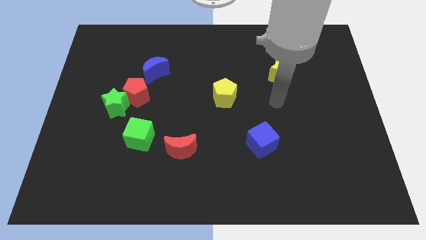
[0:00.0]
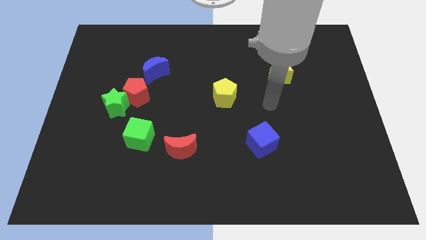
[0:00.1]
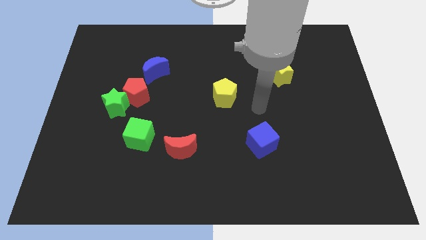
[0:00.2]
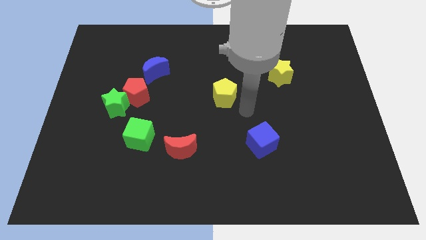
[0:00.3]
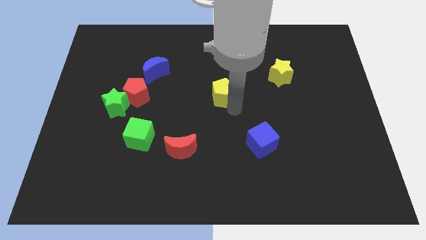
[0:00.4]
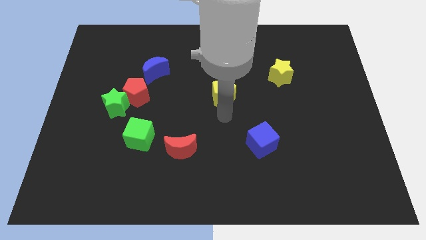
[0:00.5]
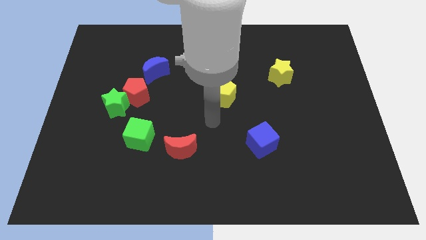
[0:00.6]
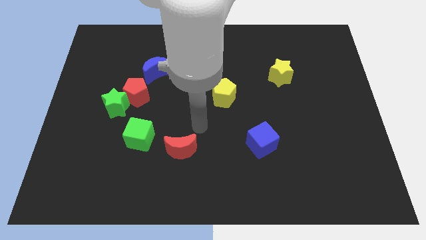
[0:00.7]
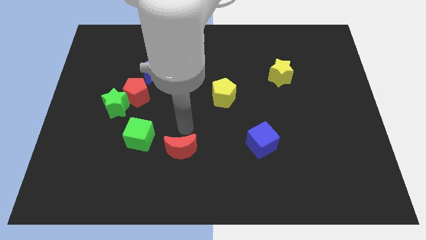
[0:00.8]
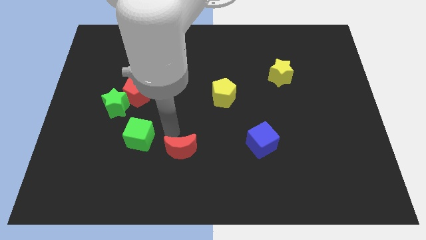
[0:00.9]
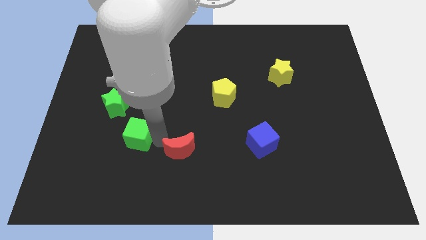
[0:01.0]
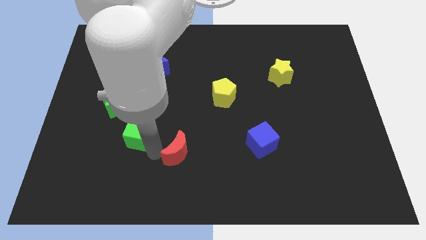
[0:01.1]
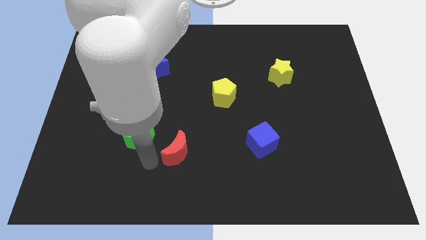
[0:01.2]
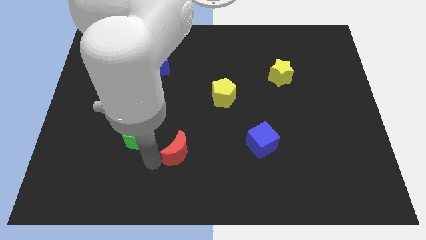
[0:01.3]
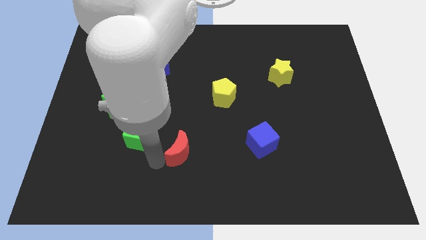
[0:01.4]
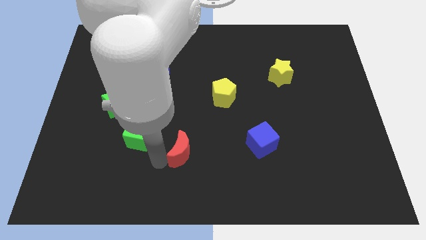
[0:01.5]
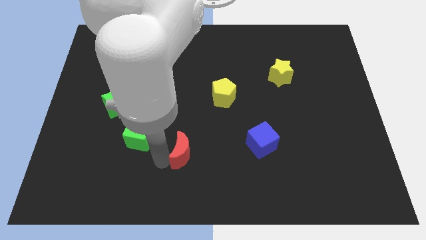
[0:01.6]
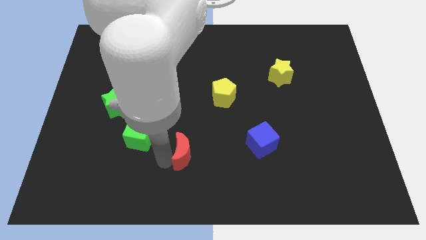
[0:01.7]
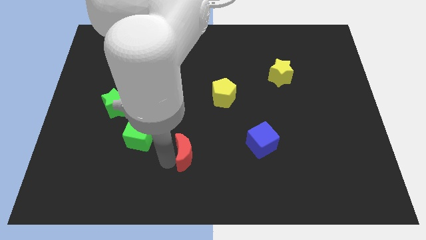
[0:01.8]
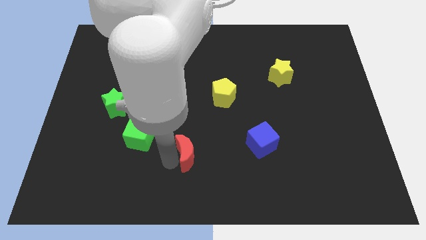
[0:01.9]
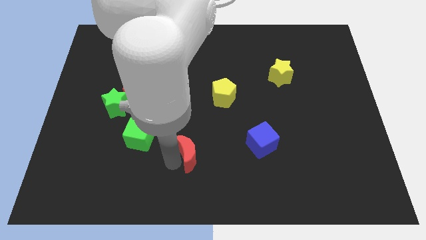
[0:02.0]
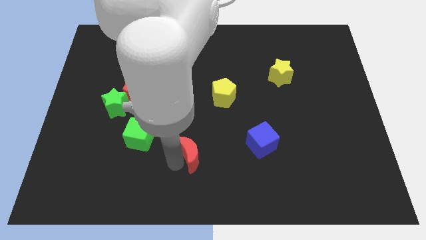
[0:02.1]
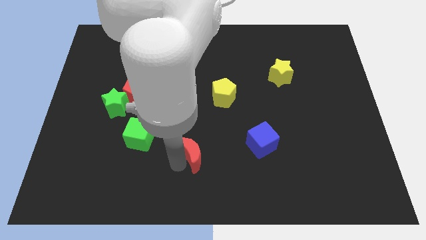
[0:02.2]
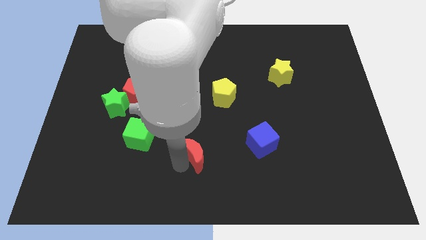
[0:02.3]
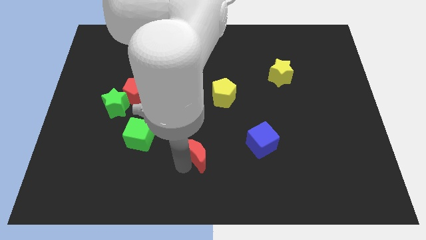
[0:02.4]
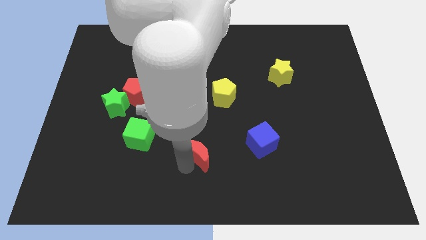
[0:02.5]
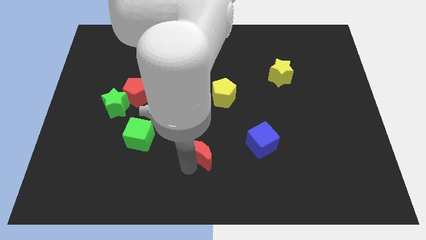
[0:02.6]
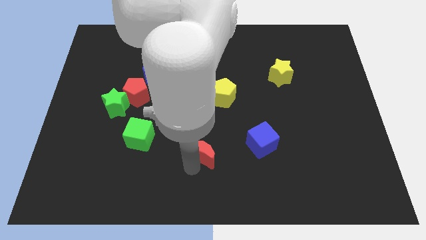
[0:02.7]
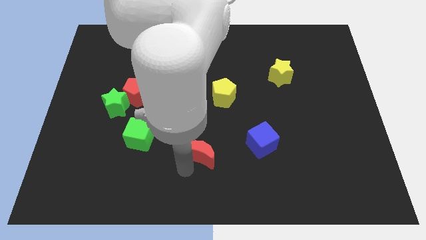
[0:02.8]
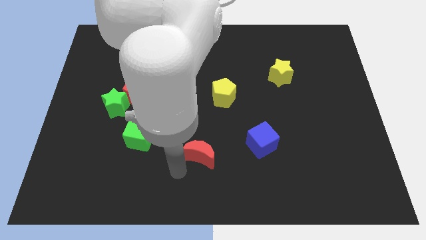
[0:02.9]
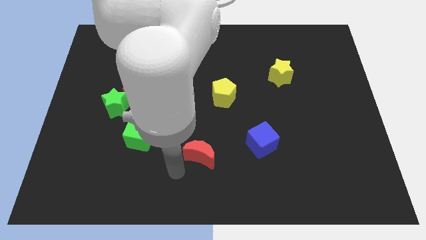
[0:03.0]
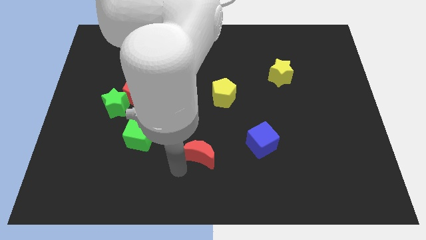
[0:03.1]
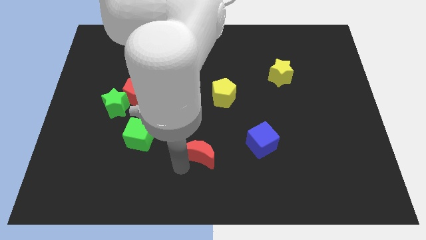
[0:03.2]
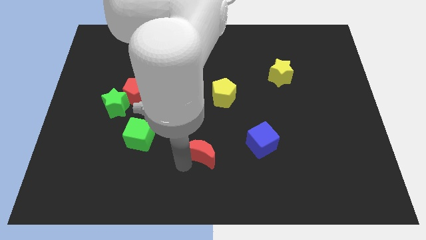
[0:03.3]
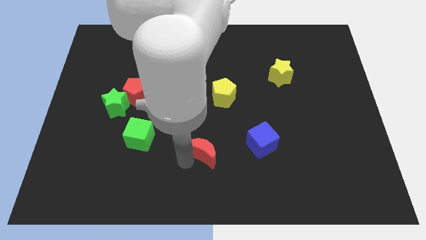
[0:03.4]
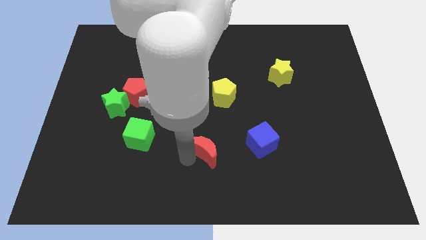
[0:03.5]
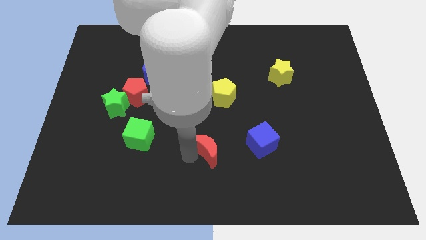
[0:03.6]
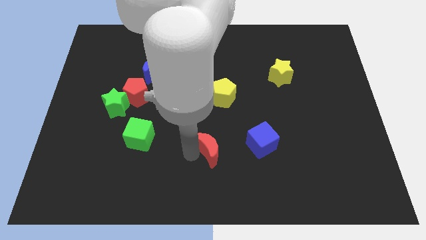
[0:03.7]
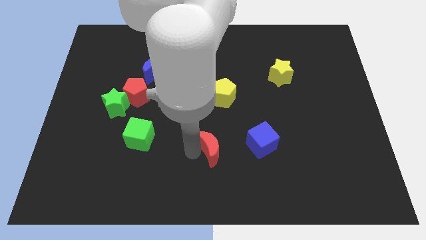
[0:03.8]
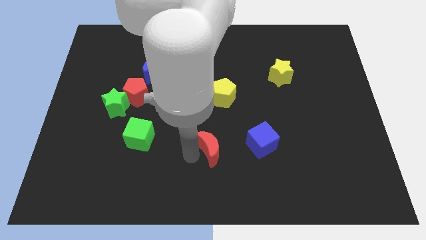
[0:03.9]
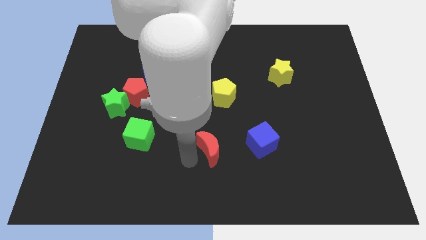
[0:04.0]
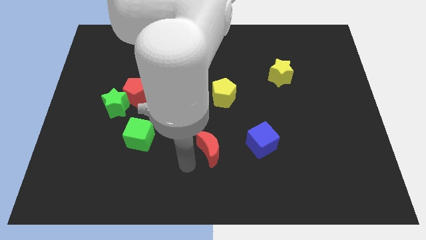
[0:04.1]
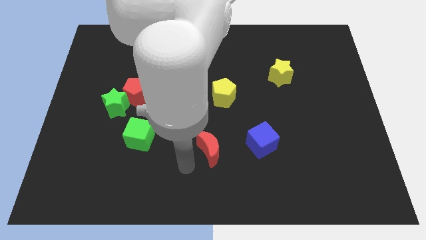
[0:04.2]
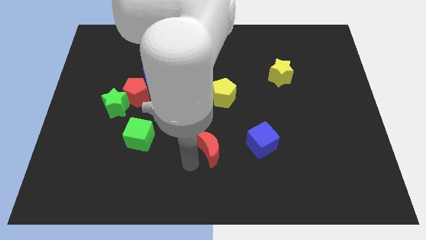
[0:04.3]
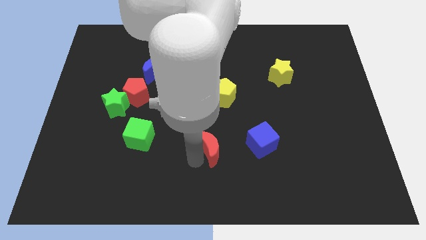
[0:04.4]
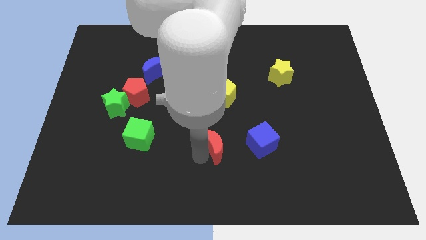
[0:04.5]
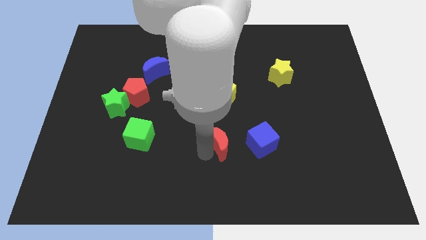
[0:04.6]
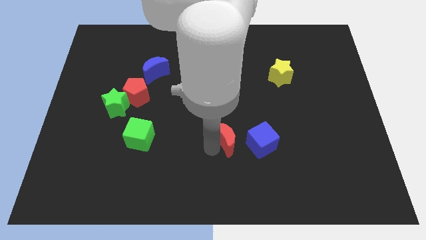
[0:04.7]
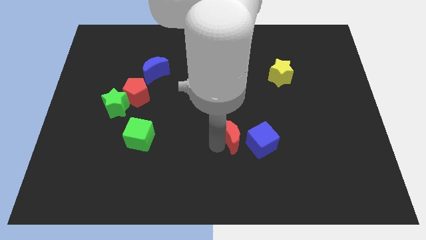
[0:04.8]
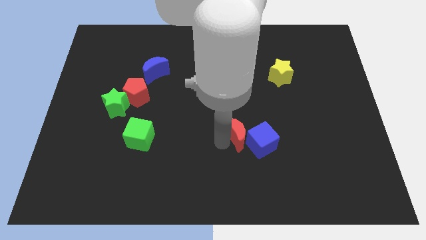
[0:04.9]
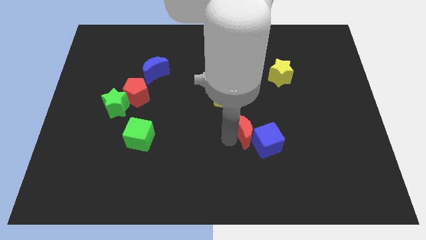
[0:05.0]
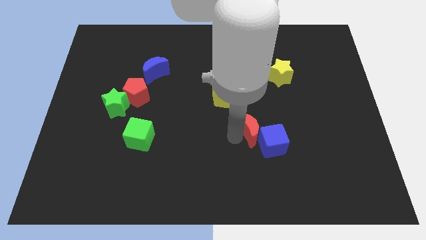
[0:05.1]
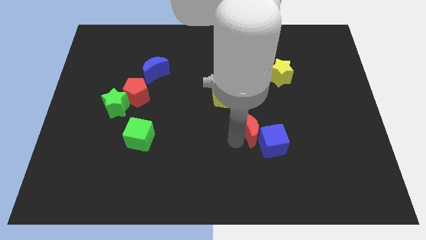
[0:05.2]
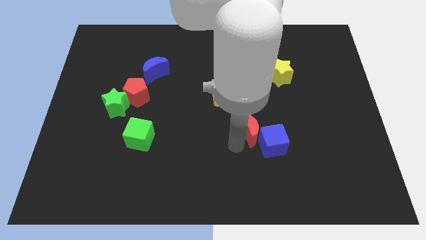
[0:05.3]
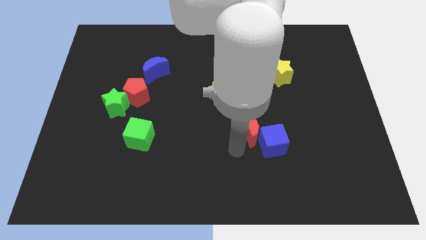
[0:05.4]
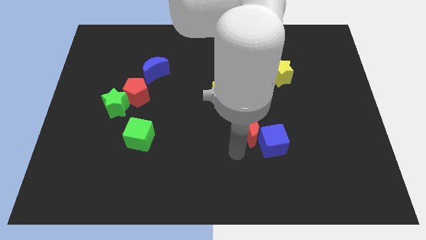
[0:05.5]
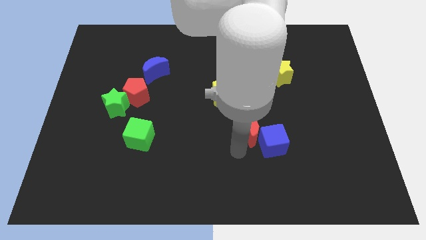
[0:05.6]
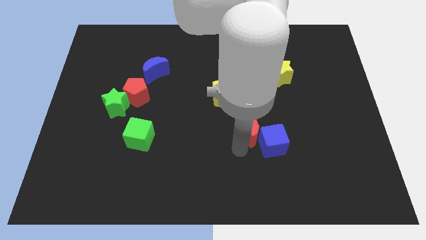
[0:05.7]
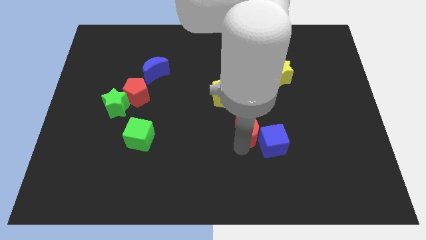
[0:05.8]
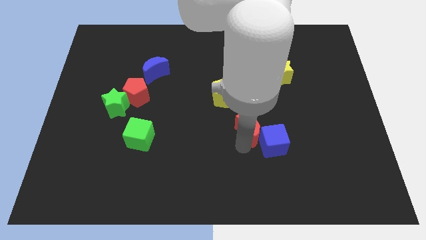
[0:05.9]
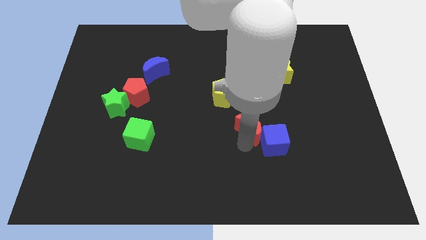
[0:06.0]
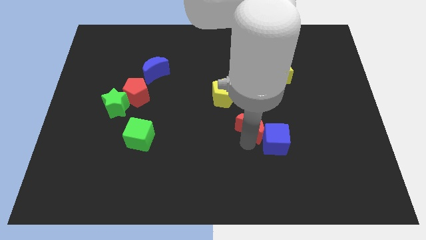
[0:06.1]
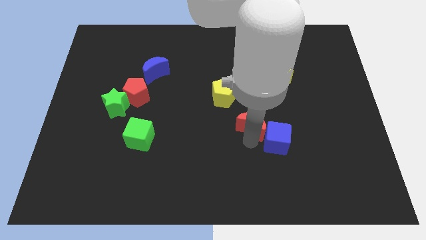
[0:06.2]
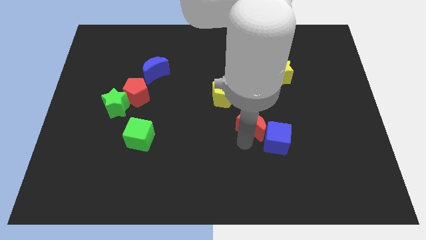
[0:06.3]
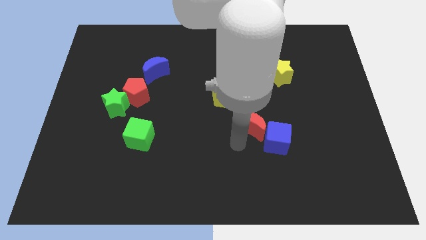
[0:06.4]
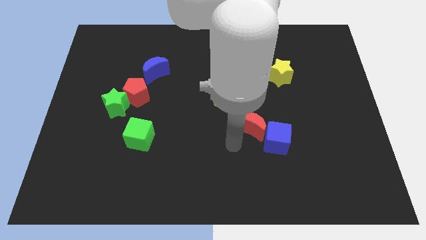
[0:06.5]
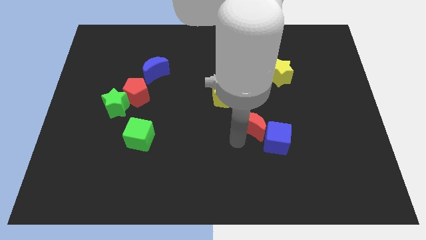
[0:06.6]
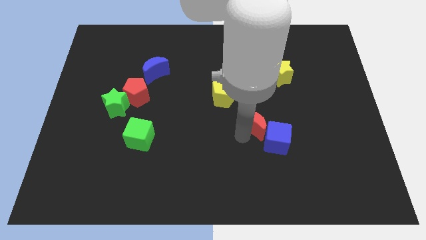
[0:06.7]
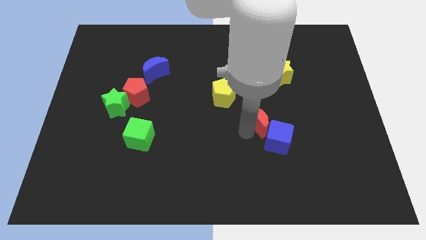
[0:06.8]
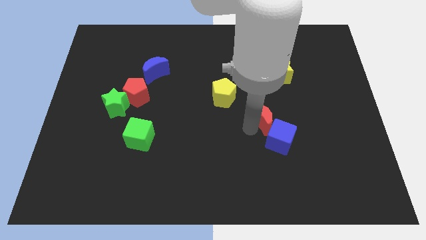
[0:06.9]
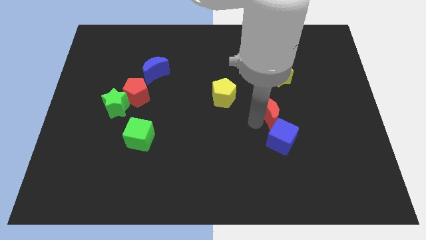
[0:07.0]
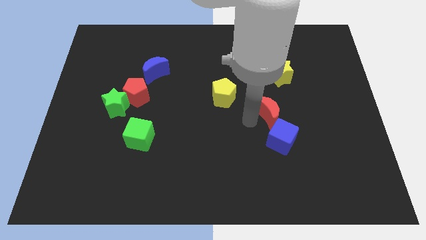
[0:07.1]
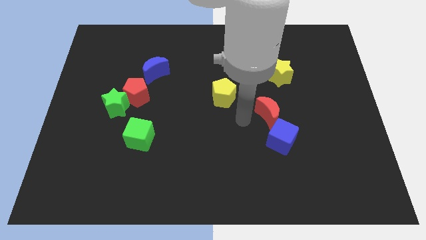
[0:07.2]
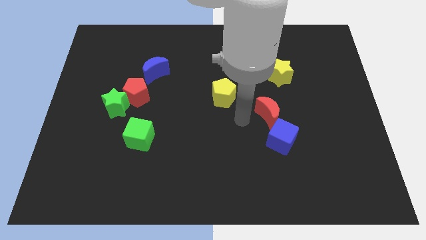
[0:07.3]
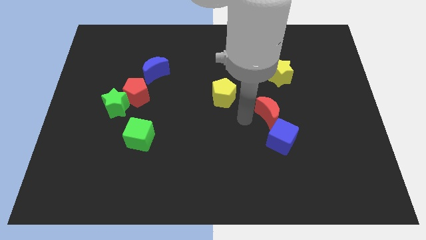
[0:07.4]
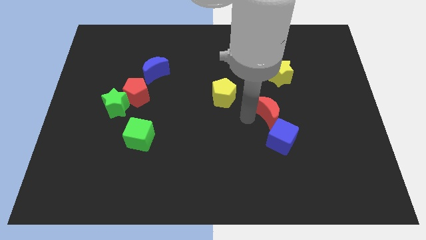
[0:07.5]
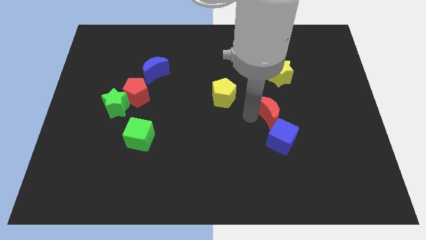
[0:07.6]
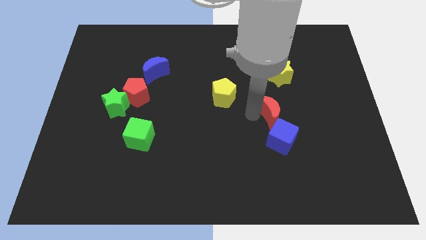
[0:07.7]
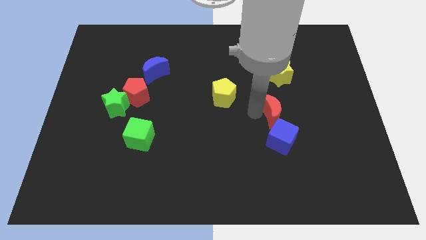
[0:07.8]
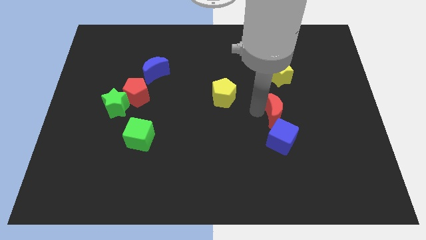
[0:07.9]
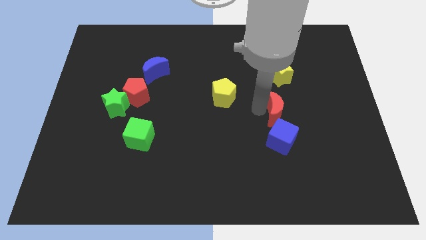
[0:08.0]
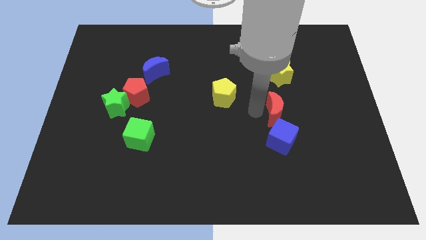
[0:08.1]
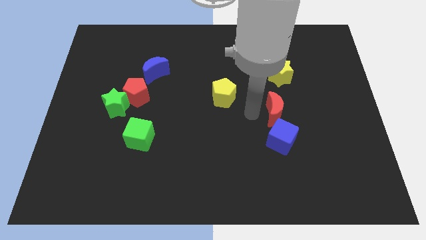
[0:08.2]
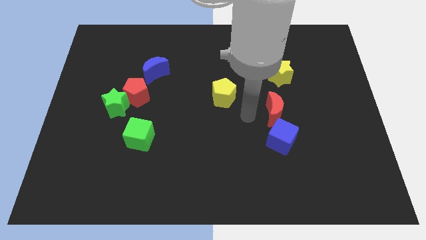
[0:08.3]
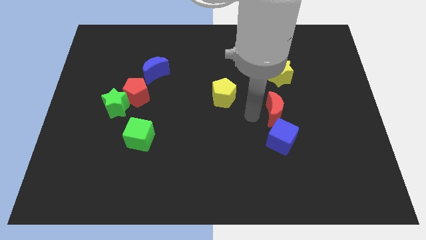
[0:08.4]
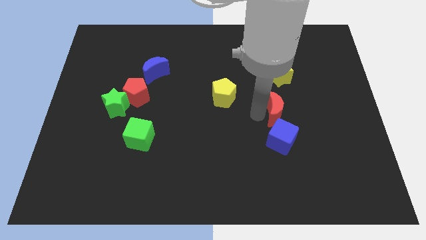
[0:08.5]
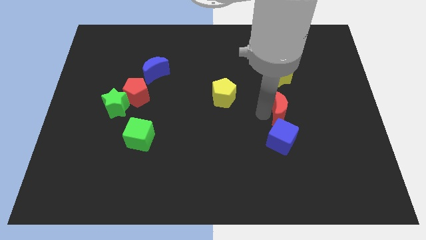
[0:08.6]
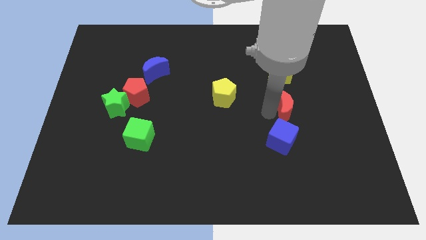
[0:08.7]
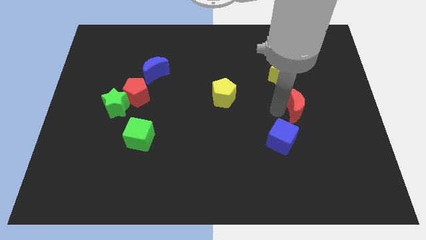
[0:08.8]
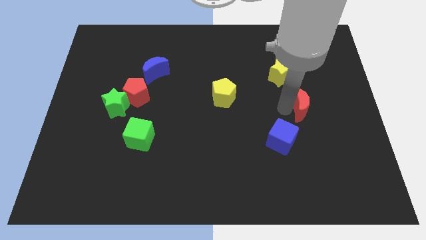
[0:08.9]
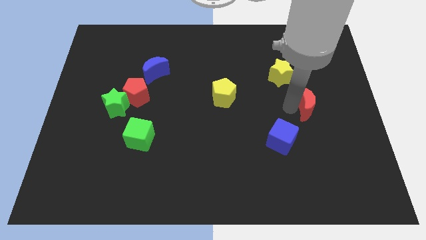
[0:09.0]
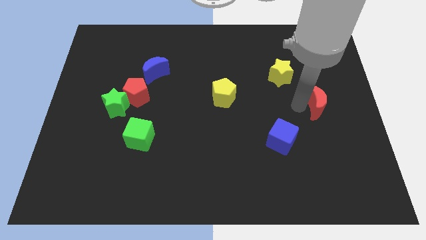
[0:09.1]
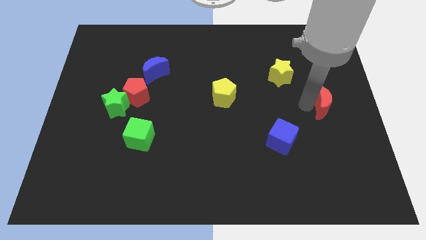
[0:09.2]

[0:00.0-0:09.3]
slide the red moon to the right side of the board
